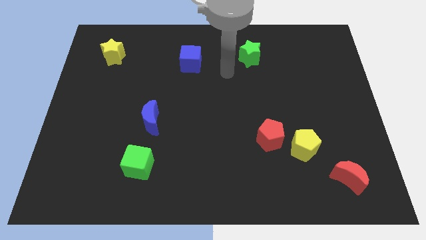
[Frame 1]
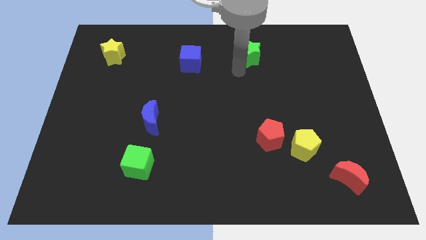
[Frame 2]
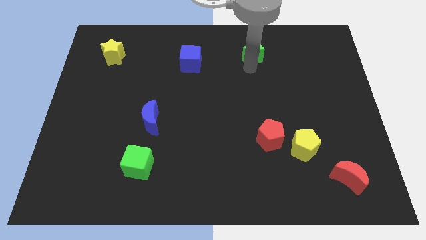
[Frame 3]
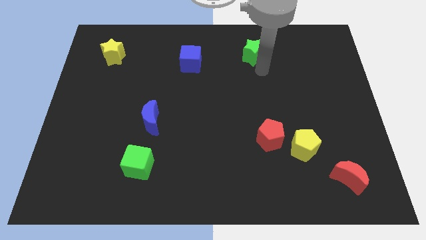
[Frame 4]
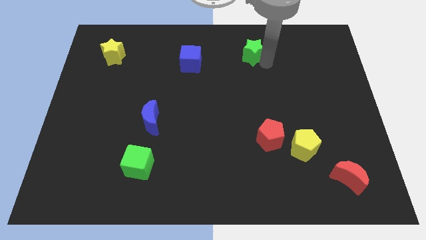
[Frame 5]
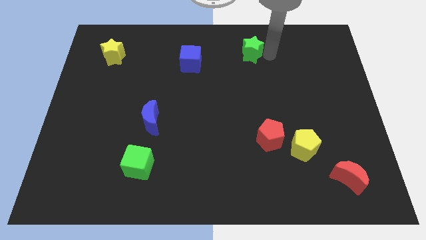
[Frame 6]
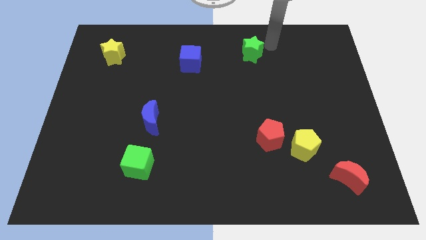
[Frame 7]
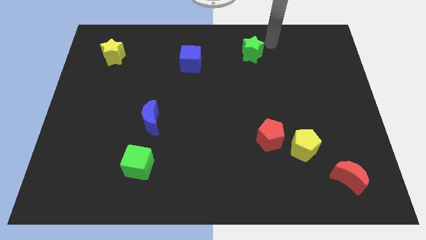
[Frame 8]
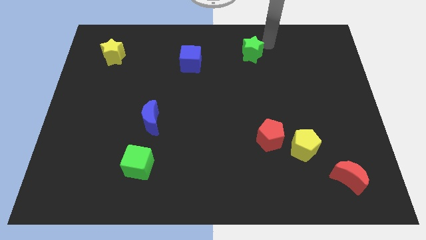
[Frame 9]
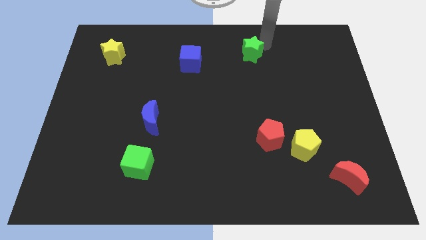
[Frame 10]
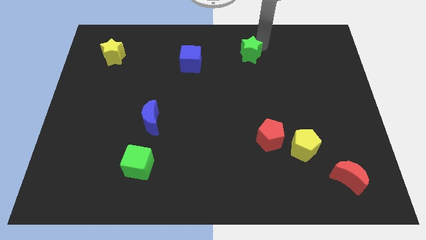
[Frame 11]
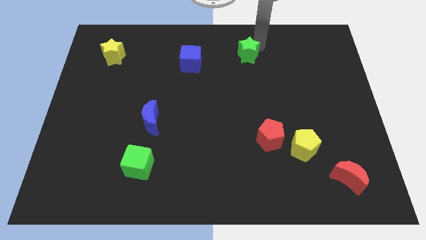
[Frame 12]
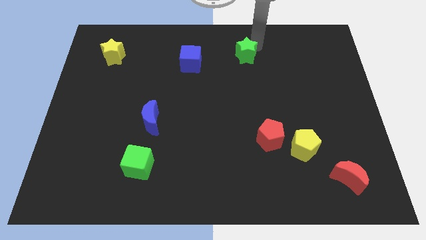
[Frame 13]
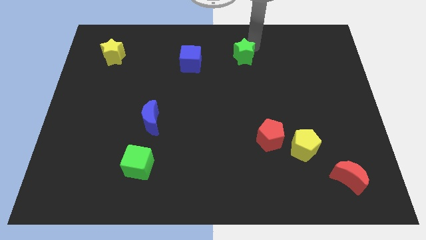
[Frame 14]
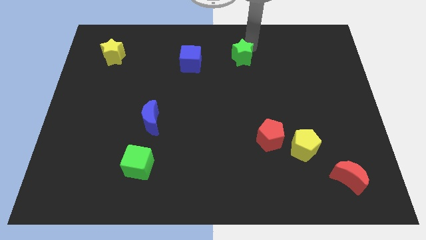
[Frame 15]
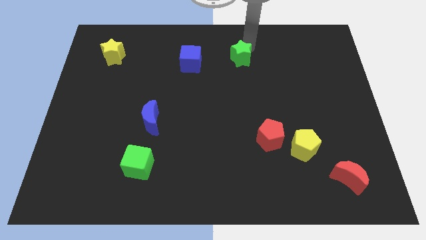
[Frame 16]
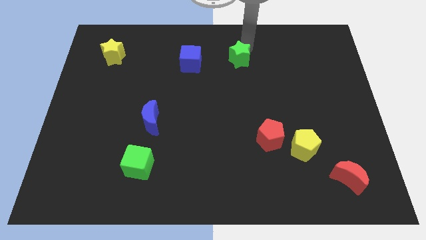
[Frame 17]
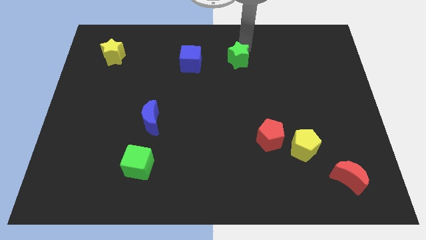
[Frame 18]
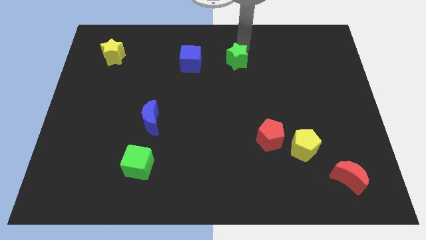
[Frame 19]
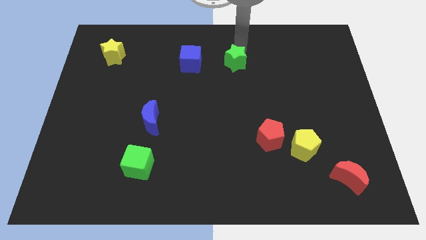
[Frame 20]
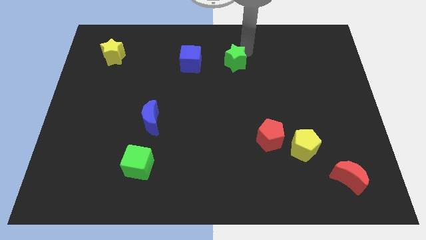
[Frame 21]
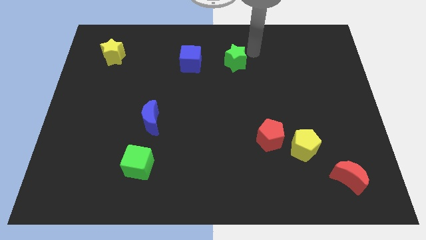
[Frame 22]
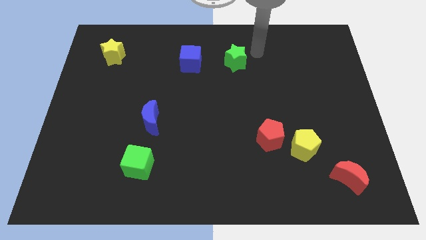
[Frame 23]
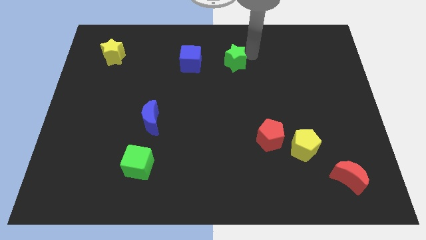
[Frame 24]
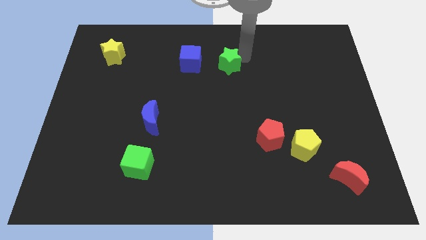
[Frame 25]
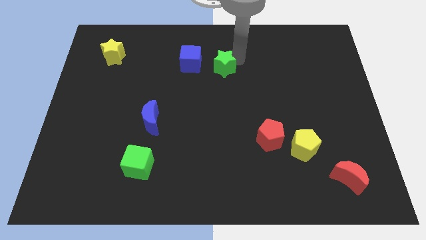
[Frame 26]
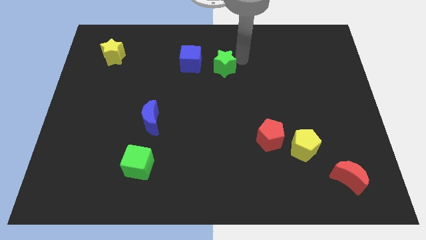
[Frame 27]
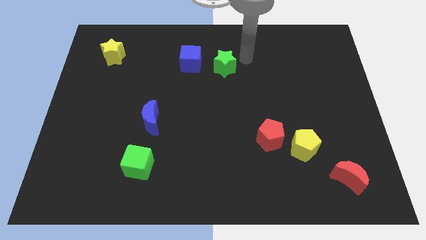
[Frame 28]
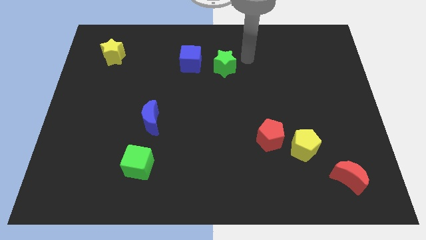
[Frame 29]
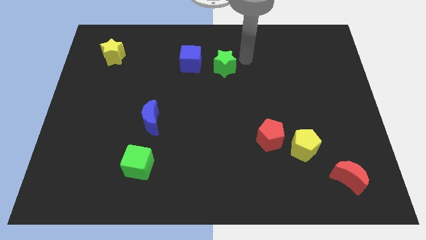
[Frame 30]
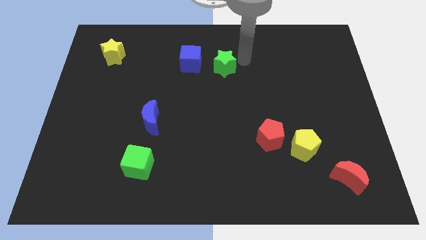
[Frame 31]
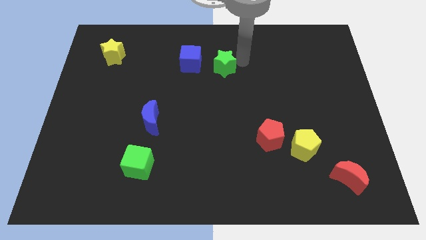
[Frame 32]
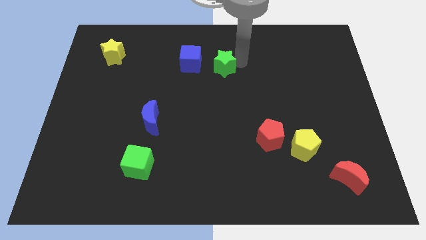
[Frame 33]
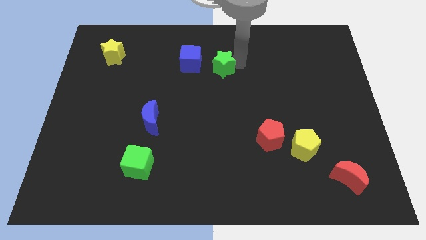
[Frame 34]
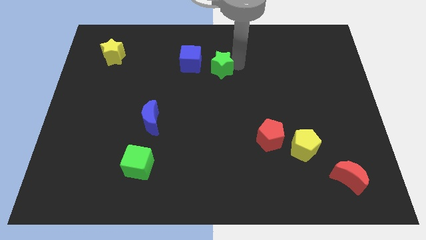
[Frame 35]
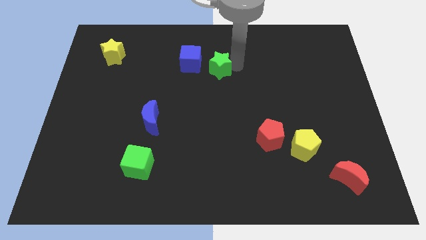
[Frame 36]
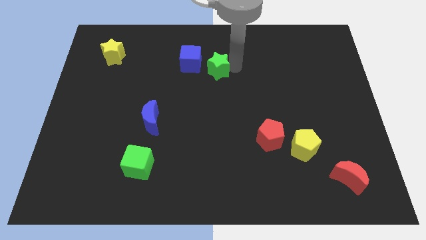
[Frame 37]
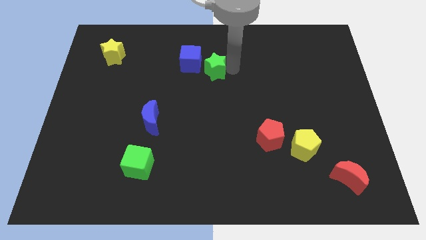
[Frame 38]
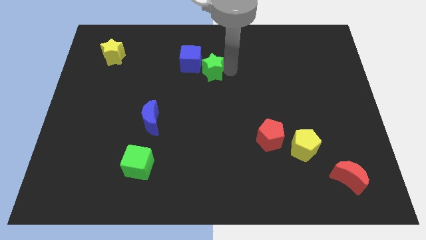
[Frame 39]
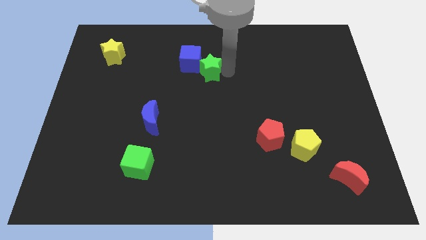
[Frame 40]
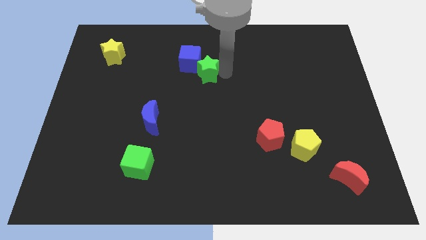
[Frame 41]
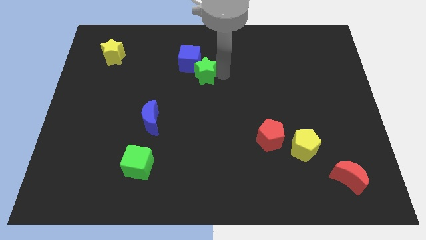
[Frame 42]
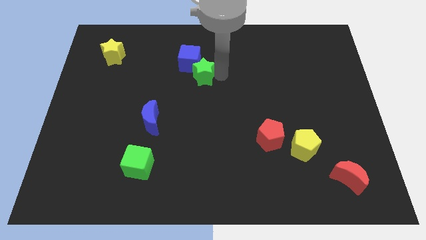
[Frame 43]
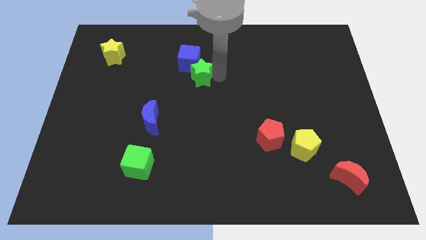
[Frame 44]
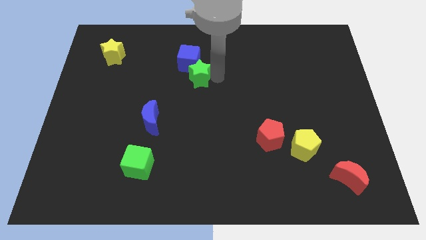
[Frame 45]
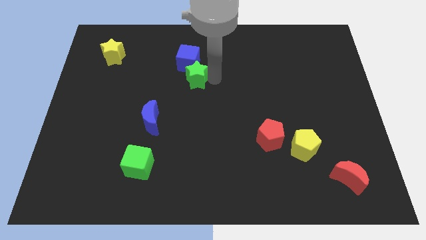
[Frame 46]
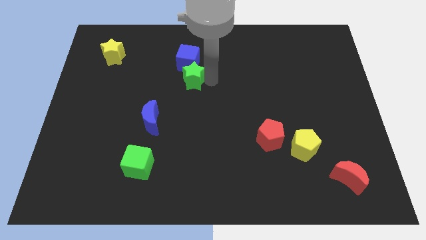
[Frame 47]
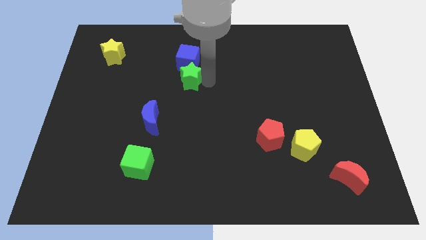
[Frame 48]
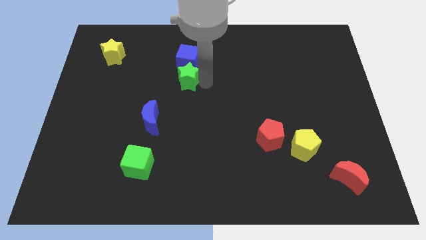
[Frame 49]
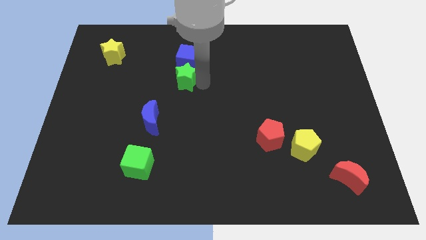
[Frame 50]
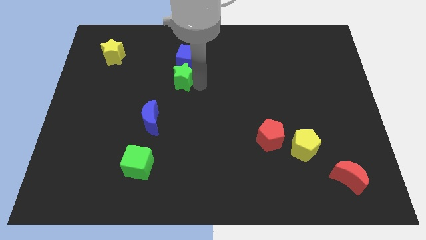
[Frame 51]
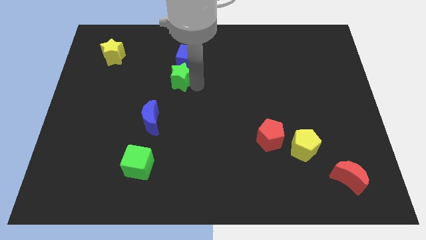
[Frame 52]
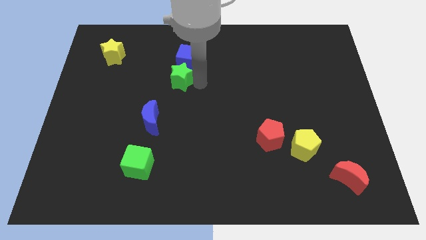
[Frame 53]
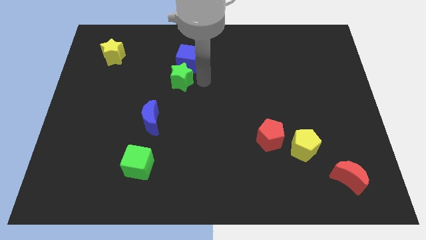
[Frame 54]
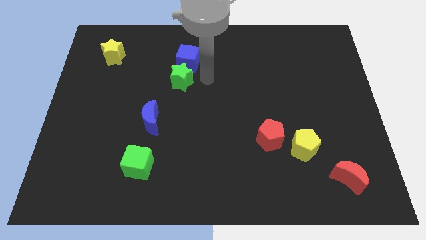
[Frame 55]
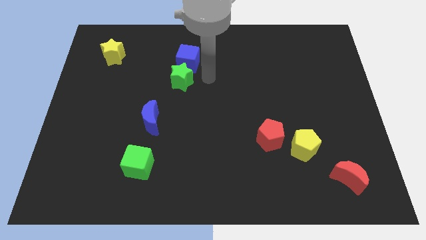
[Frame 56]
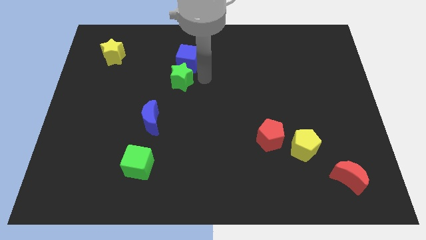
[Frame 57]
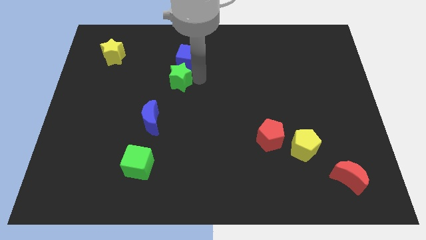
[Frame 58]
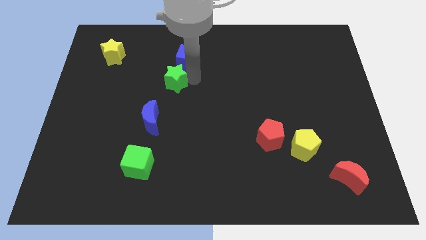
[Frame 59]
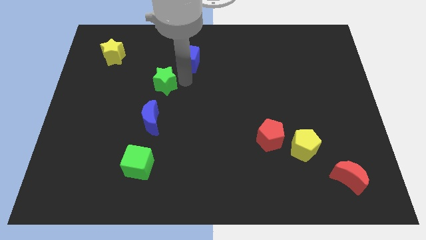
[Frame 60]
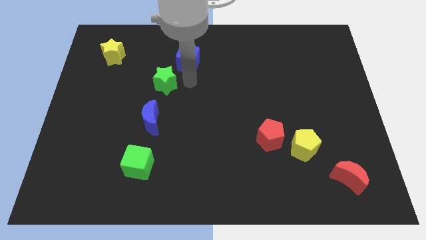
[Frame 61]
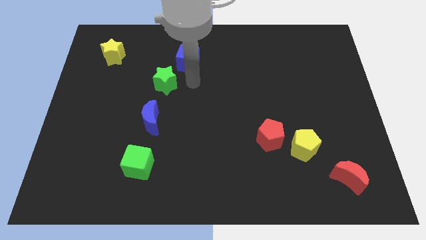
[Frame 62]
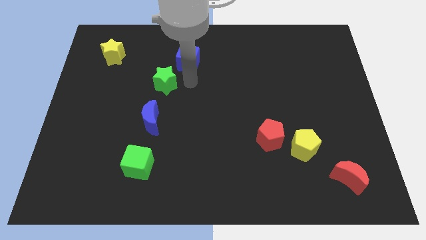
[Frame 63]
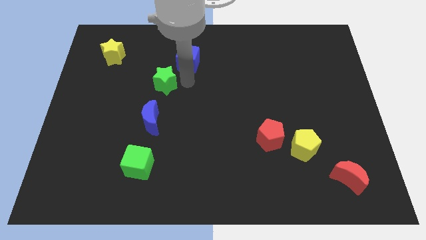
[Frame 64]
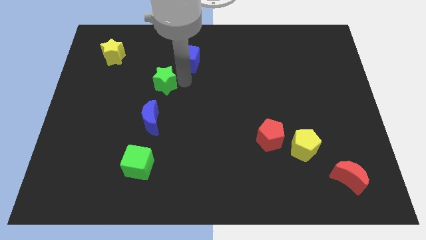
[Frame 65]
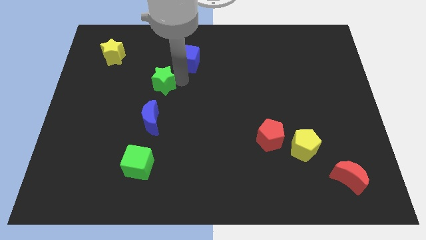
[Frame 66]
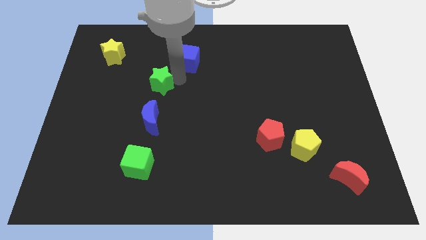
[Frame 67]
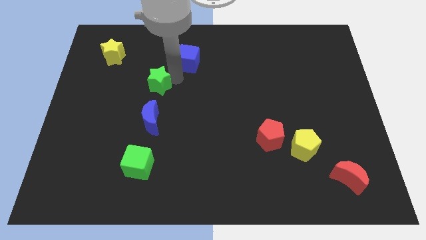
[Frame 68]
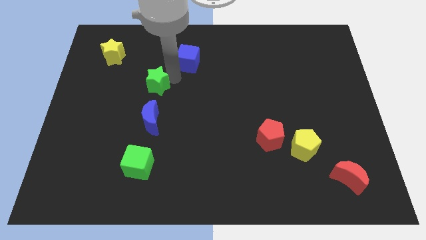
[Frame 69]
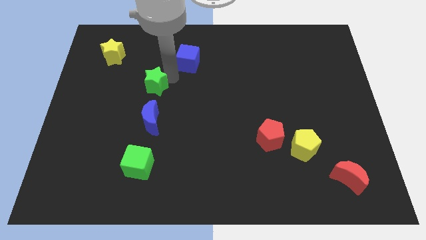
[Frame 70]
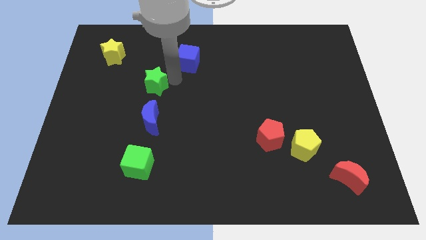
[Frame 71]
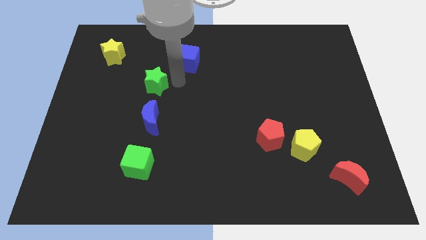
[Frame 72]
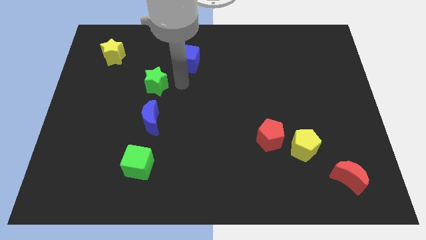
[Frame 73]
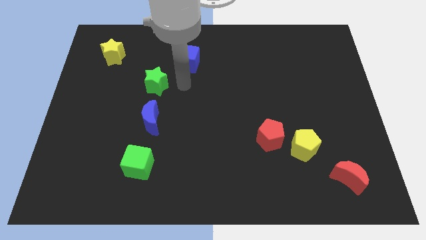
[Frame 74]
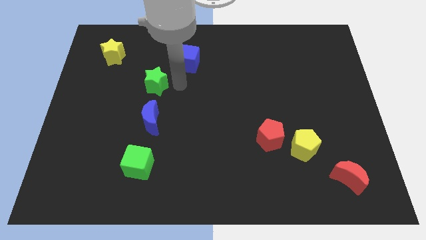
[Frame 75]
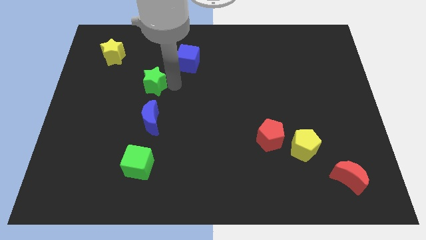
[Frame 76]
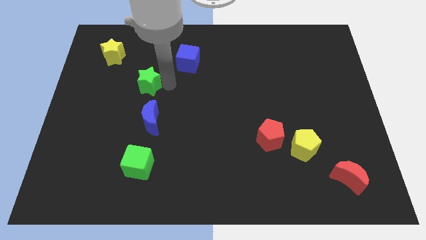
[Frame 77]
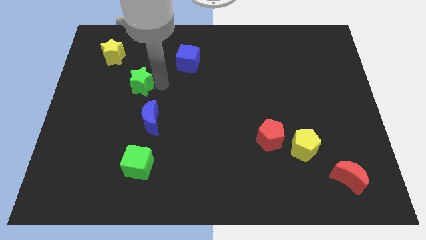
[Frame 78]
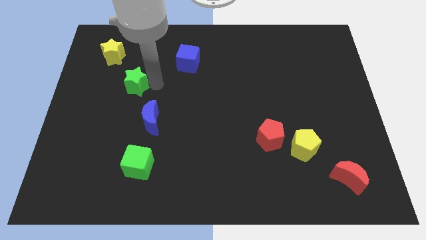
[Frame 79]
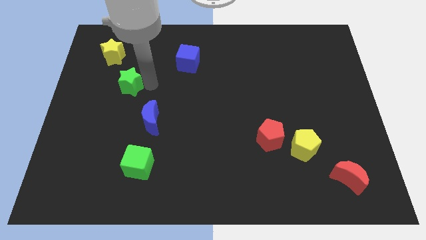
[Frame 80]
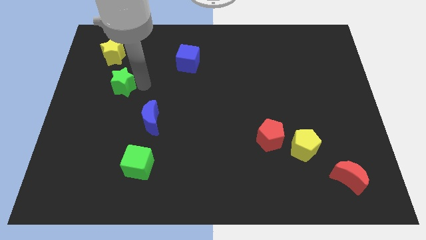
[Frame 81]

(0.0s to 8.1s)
put the green star below the yellow star

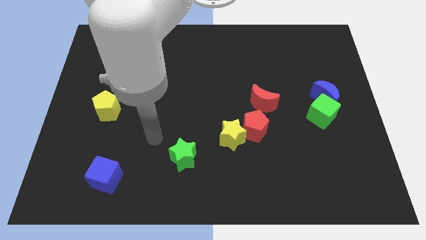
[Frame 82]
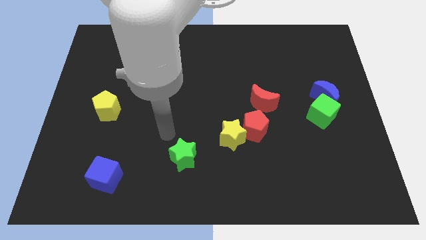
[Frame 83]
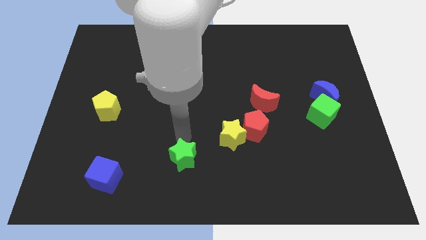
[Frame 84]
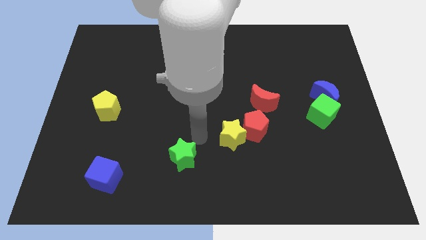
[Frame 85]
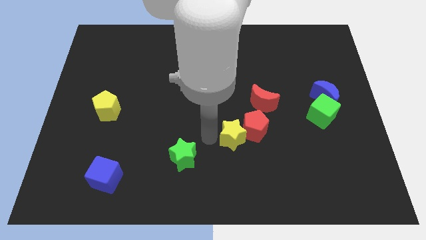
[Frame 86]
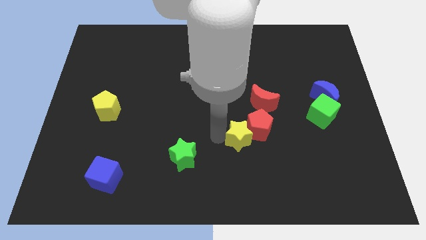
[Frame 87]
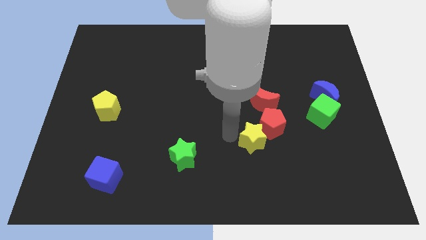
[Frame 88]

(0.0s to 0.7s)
push the red pentagon to the bottom right of the red moon
